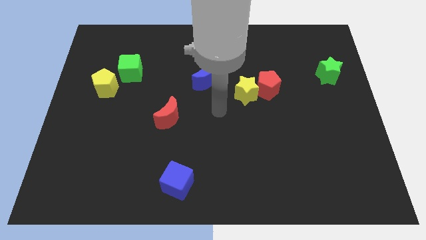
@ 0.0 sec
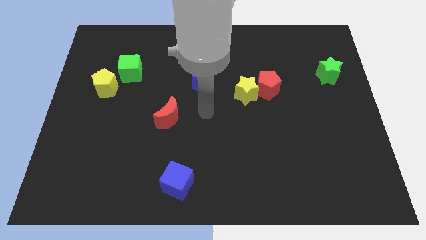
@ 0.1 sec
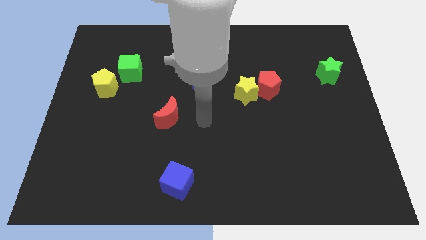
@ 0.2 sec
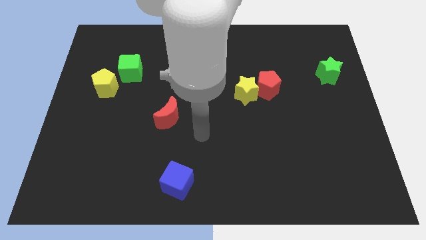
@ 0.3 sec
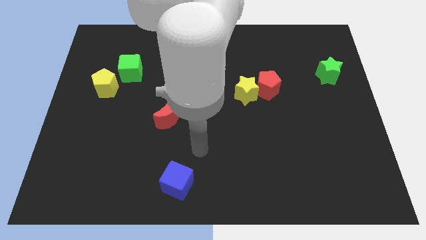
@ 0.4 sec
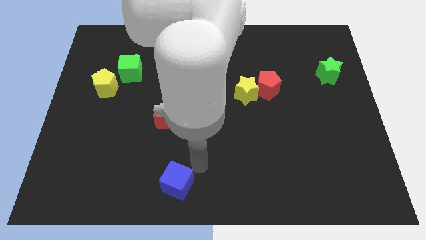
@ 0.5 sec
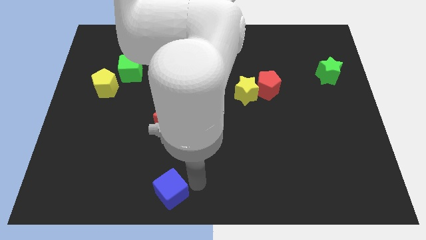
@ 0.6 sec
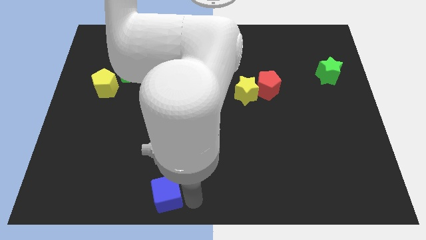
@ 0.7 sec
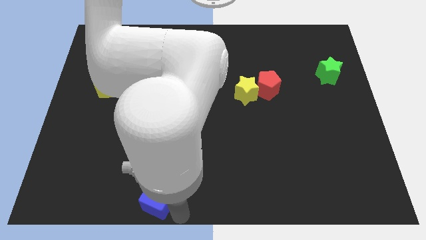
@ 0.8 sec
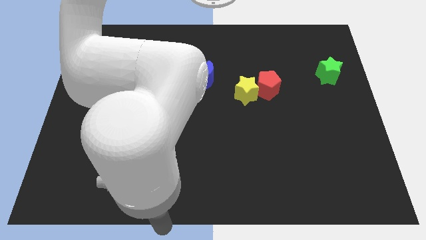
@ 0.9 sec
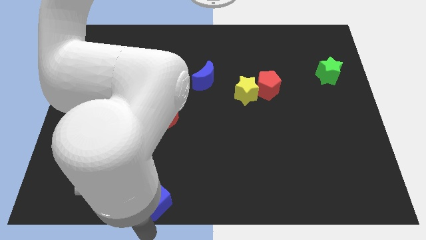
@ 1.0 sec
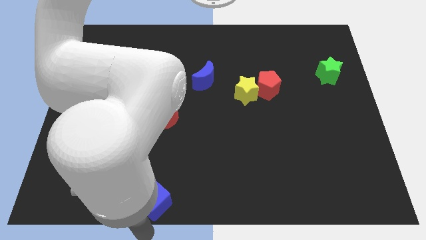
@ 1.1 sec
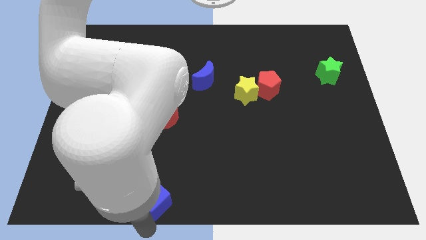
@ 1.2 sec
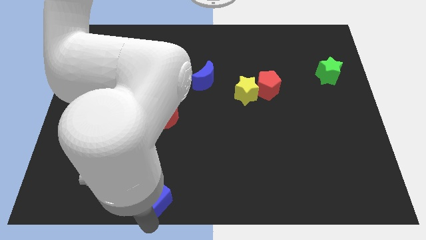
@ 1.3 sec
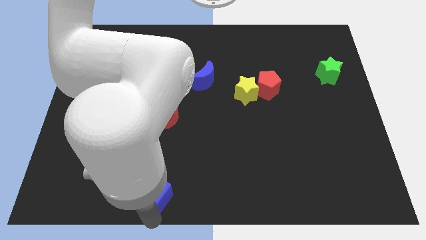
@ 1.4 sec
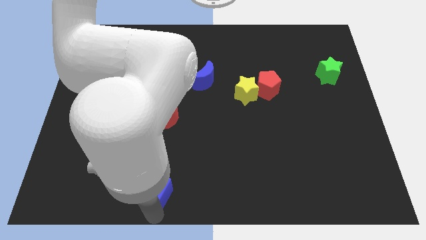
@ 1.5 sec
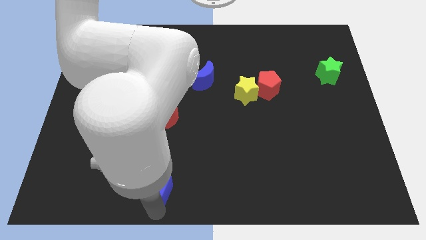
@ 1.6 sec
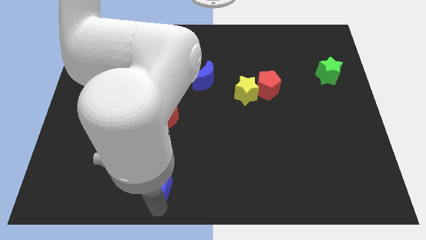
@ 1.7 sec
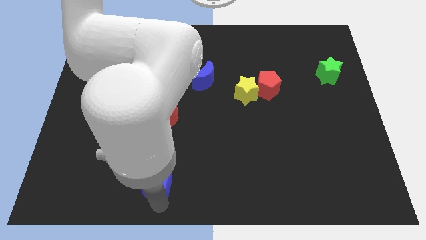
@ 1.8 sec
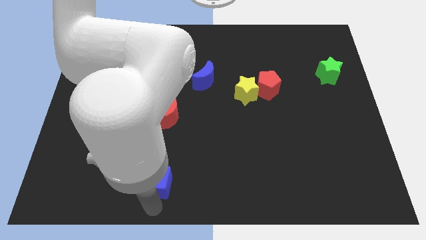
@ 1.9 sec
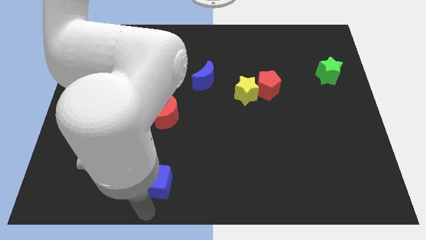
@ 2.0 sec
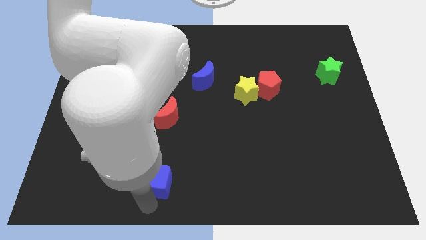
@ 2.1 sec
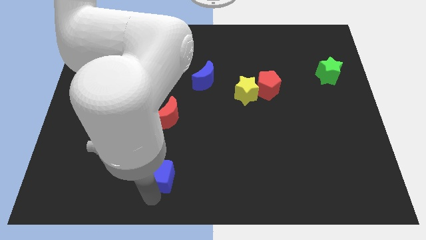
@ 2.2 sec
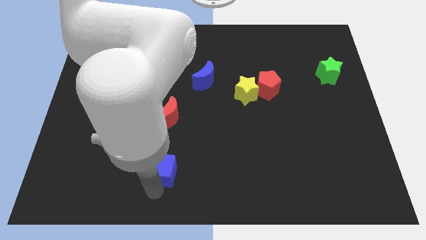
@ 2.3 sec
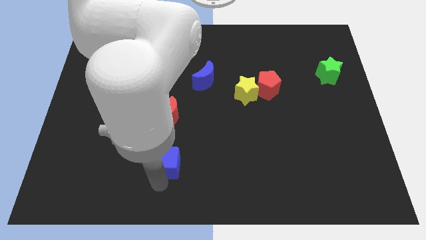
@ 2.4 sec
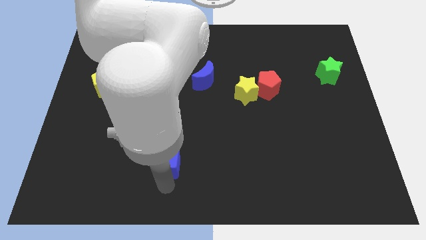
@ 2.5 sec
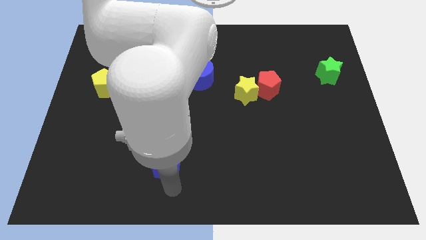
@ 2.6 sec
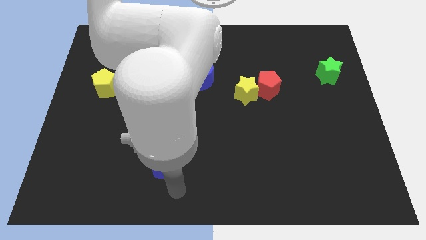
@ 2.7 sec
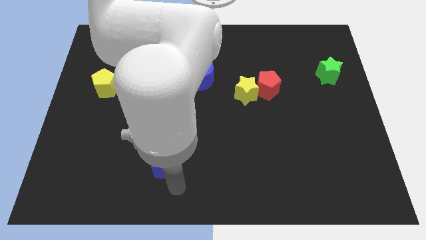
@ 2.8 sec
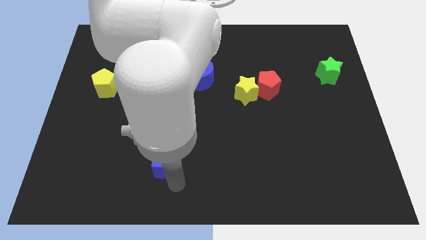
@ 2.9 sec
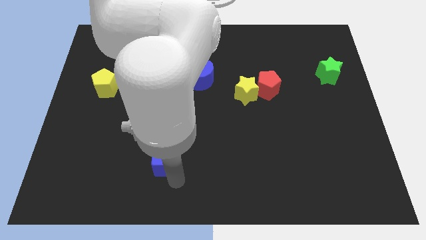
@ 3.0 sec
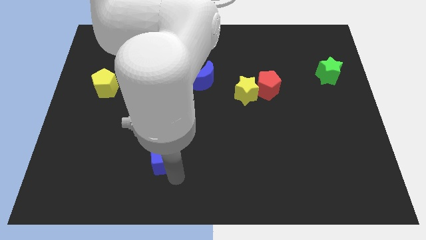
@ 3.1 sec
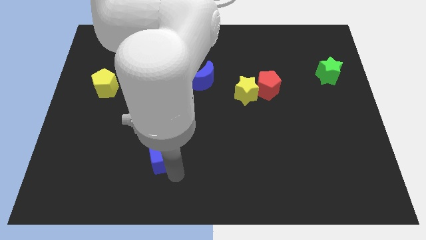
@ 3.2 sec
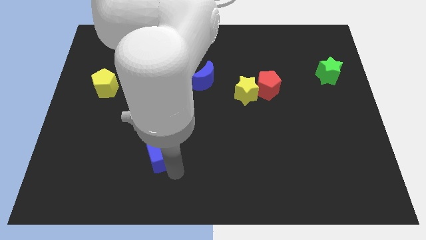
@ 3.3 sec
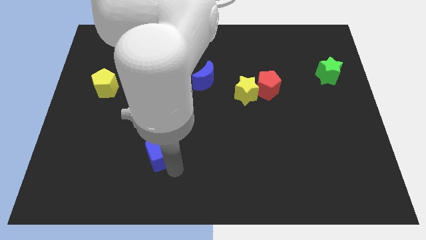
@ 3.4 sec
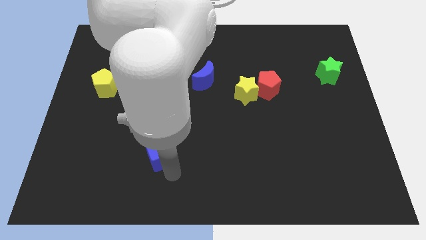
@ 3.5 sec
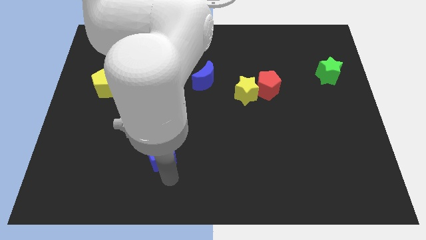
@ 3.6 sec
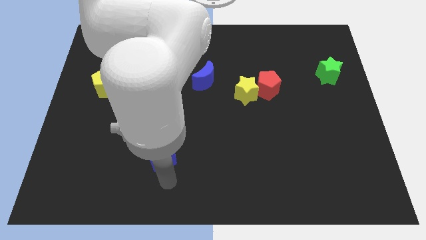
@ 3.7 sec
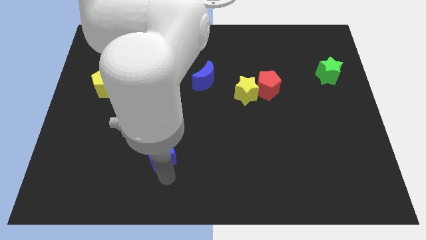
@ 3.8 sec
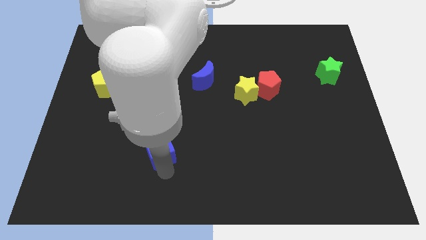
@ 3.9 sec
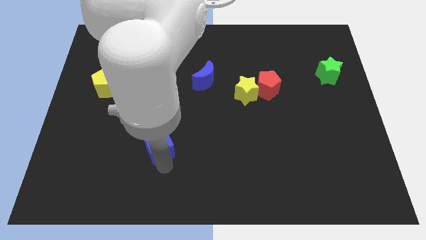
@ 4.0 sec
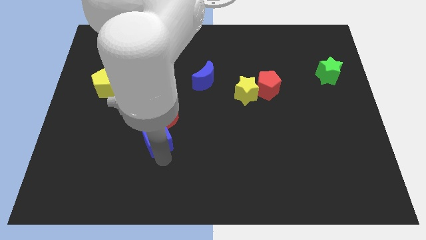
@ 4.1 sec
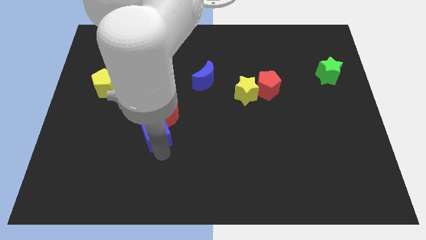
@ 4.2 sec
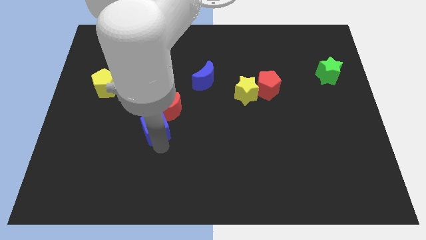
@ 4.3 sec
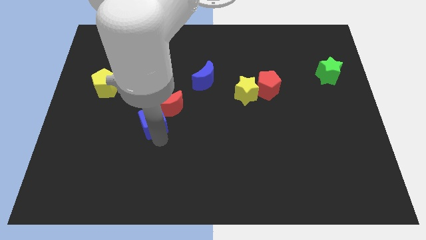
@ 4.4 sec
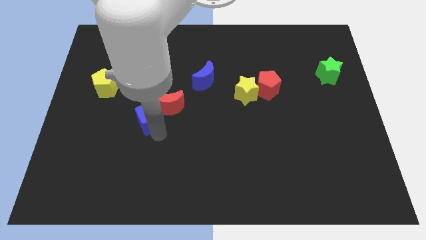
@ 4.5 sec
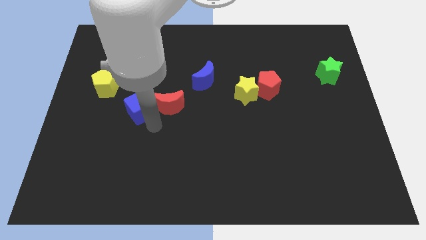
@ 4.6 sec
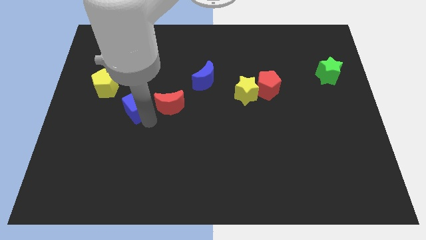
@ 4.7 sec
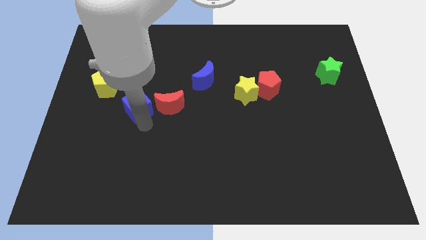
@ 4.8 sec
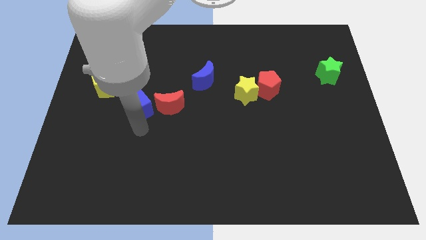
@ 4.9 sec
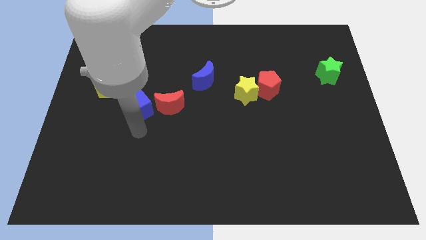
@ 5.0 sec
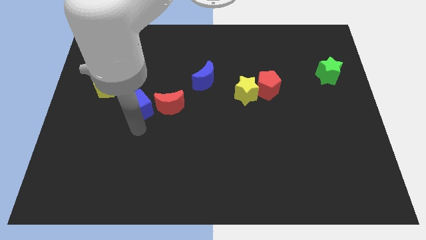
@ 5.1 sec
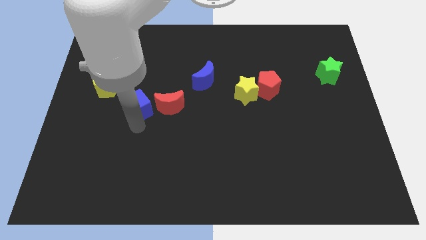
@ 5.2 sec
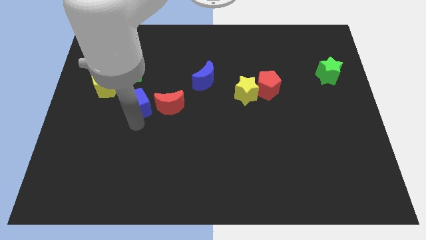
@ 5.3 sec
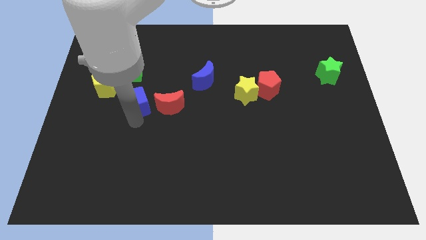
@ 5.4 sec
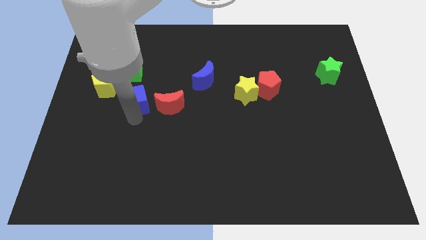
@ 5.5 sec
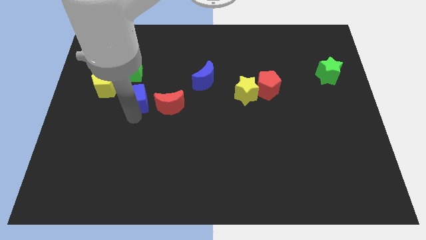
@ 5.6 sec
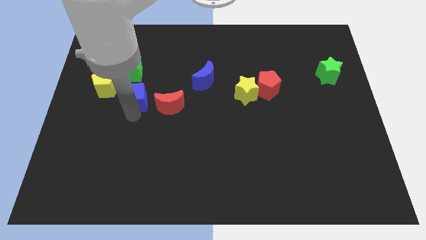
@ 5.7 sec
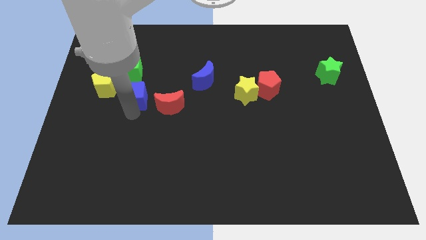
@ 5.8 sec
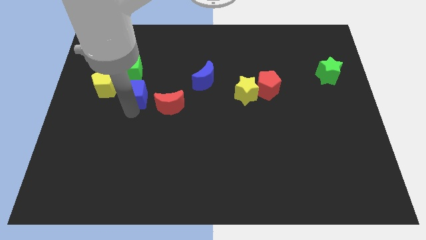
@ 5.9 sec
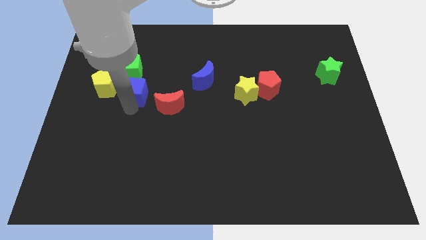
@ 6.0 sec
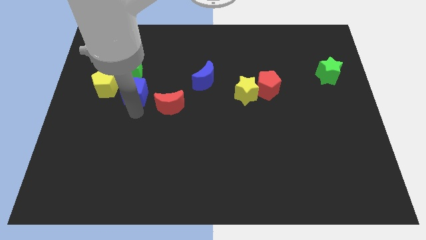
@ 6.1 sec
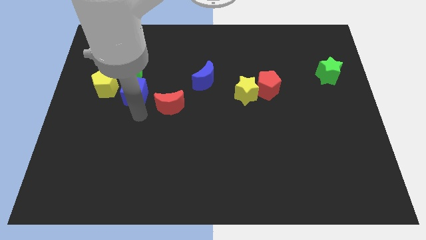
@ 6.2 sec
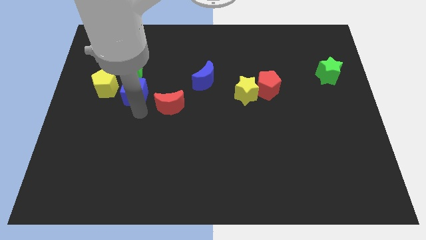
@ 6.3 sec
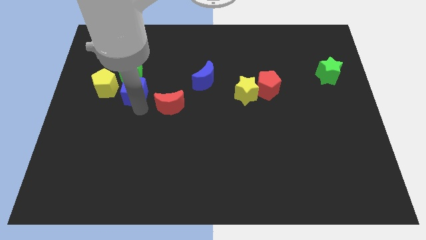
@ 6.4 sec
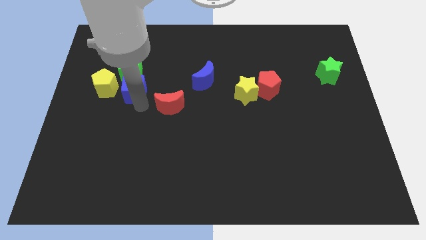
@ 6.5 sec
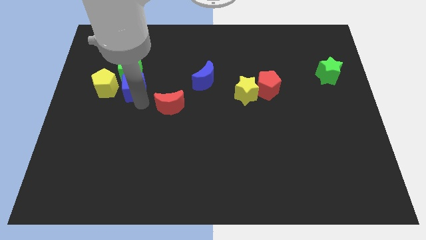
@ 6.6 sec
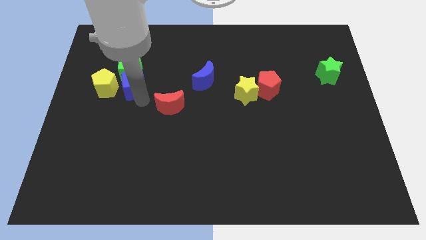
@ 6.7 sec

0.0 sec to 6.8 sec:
push the blue cube to the green cube
